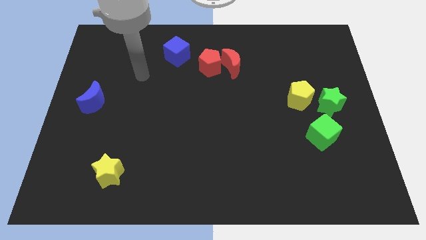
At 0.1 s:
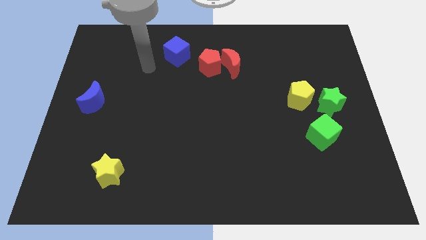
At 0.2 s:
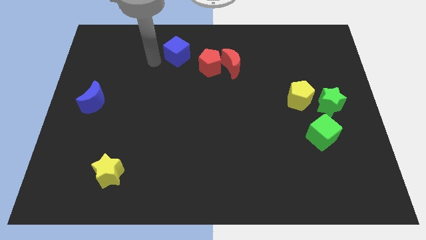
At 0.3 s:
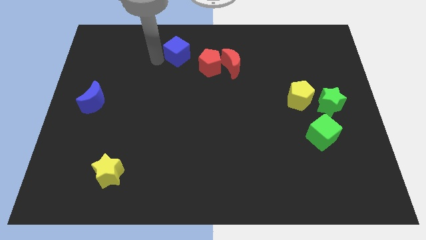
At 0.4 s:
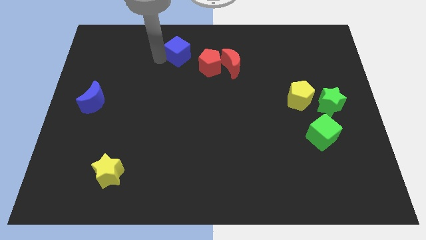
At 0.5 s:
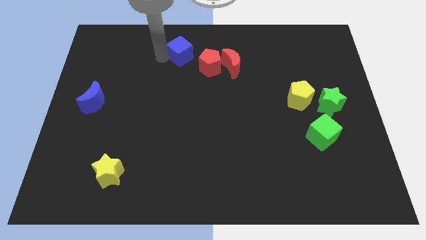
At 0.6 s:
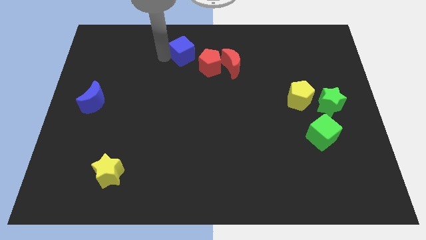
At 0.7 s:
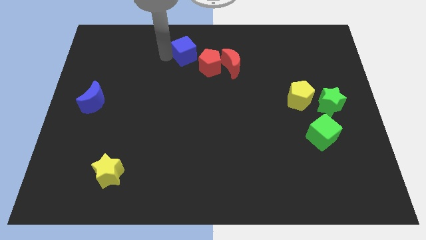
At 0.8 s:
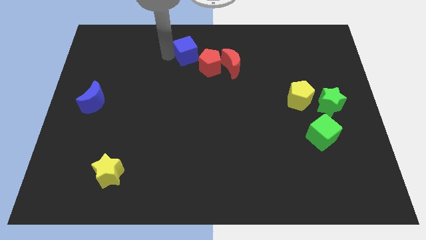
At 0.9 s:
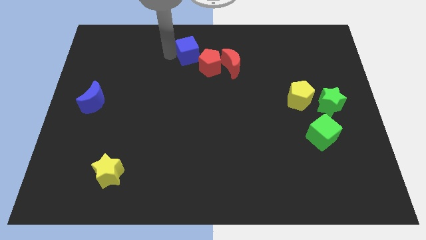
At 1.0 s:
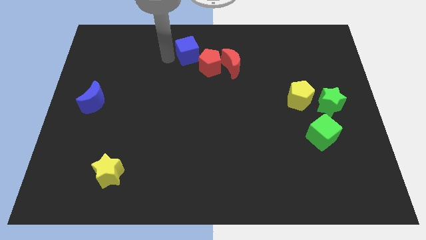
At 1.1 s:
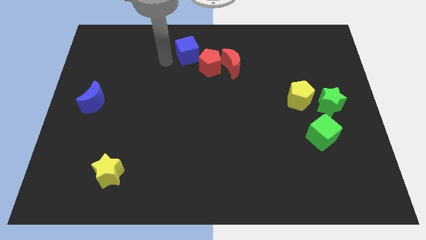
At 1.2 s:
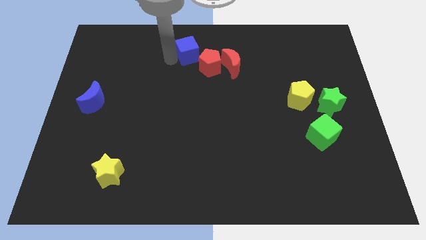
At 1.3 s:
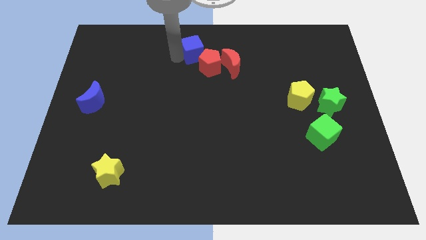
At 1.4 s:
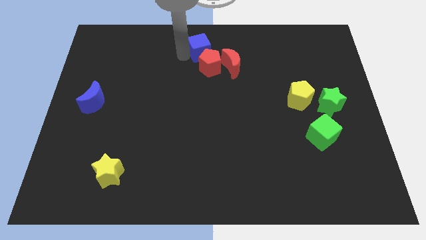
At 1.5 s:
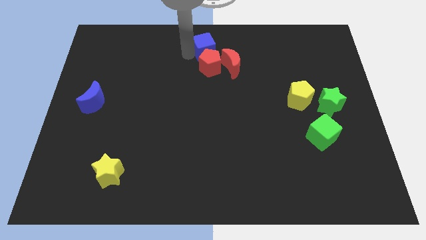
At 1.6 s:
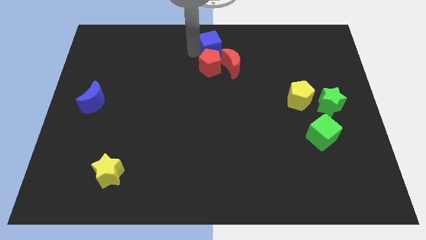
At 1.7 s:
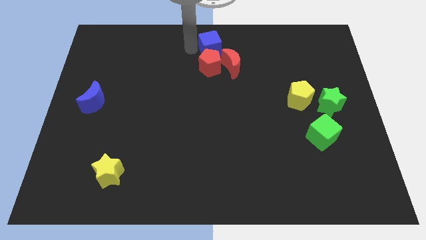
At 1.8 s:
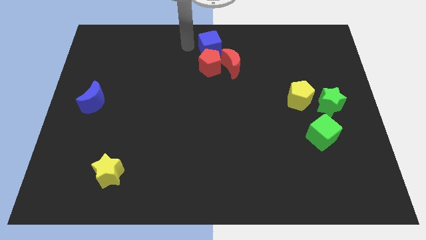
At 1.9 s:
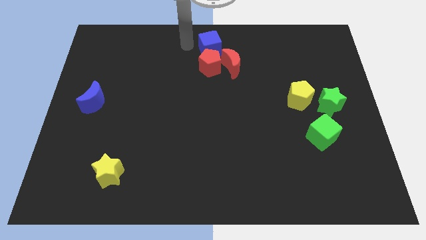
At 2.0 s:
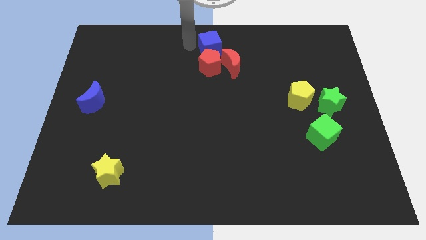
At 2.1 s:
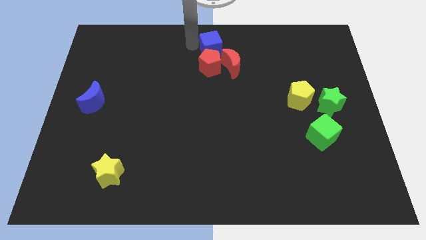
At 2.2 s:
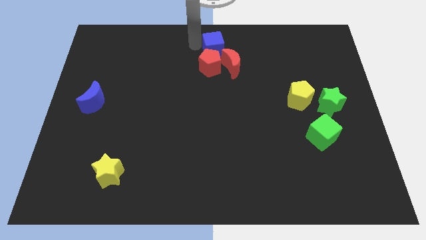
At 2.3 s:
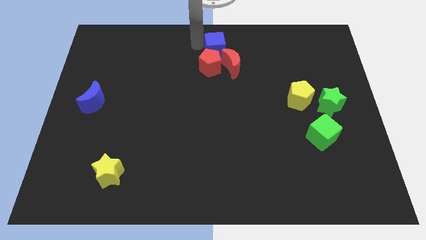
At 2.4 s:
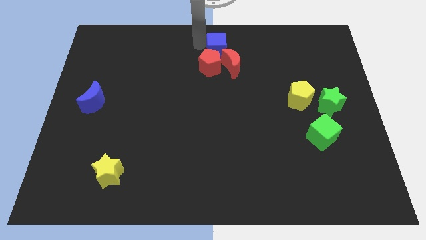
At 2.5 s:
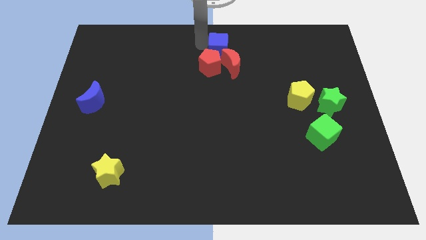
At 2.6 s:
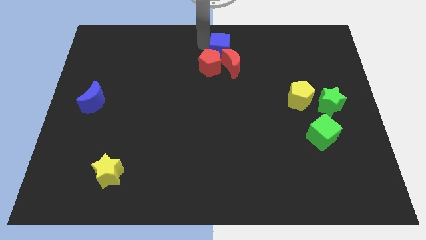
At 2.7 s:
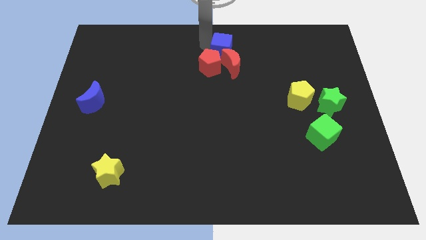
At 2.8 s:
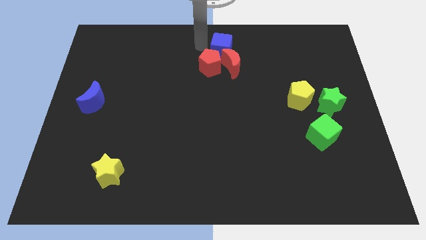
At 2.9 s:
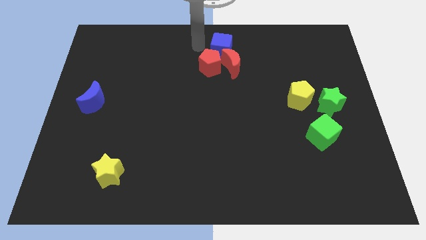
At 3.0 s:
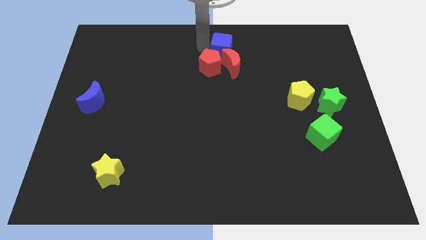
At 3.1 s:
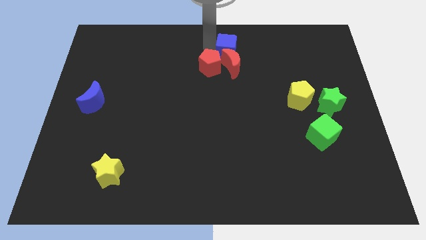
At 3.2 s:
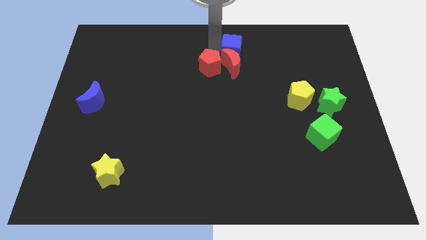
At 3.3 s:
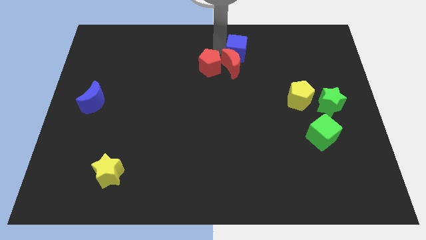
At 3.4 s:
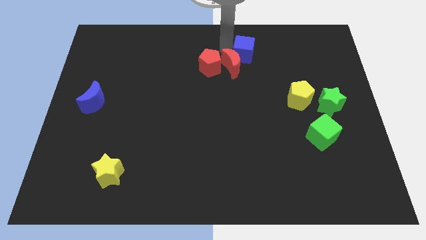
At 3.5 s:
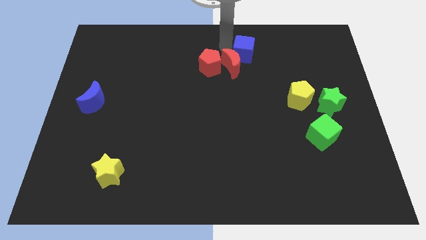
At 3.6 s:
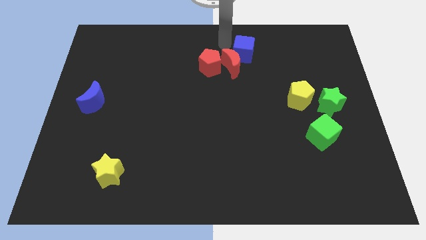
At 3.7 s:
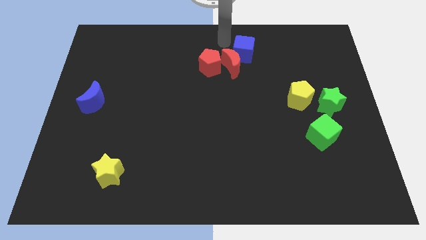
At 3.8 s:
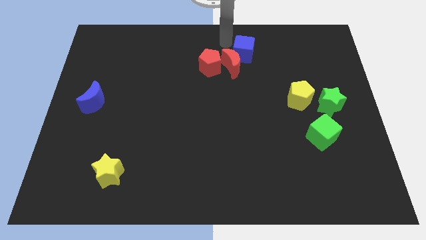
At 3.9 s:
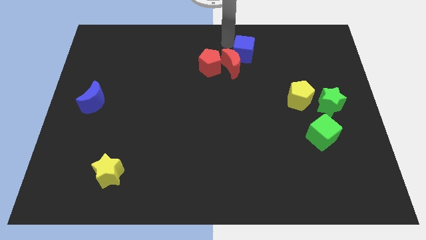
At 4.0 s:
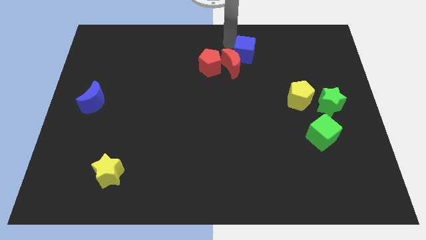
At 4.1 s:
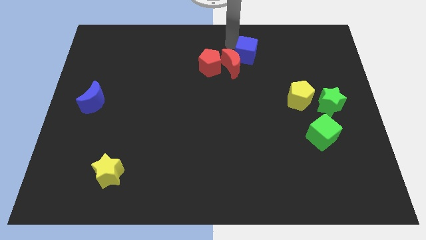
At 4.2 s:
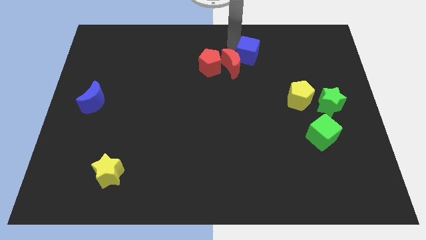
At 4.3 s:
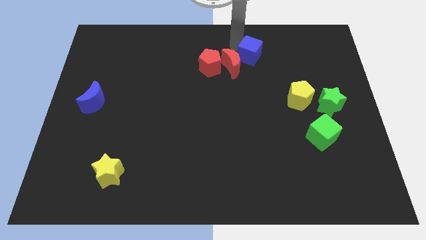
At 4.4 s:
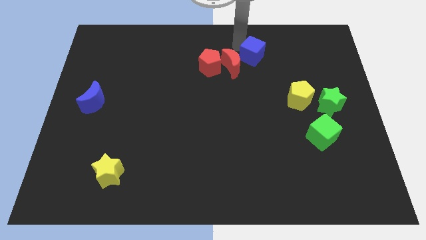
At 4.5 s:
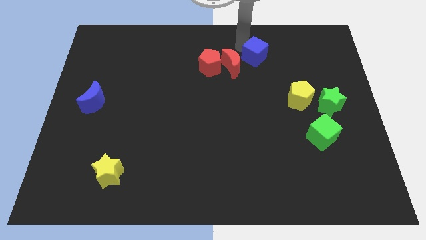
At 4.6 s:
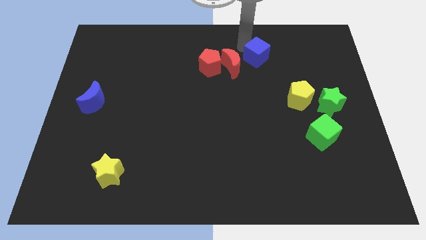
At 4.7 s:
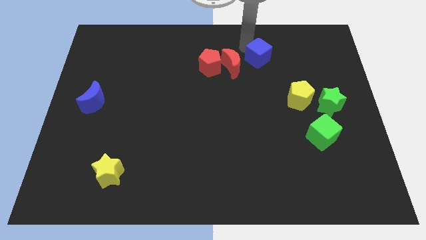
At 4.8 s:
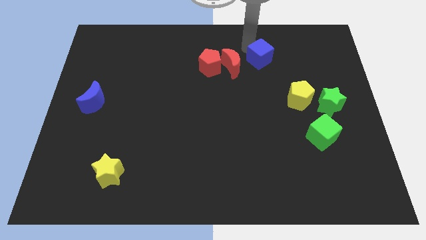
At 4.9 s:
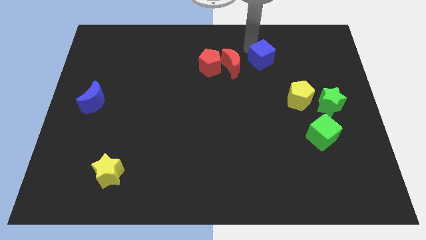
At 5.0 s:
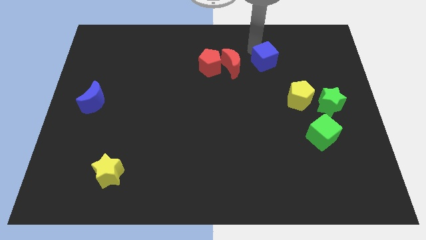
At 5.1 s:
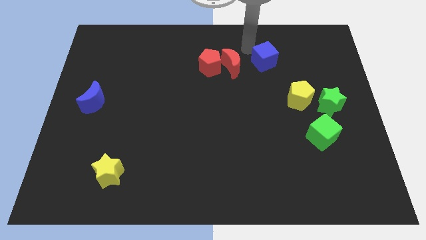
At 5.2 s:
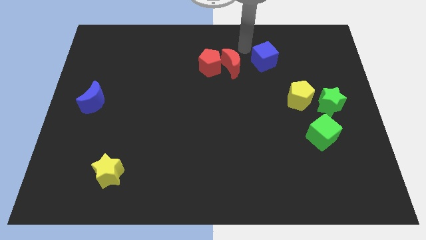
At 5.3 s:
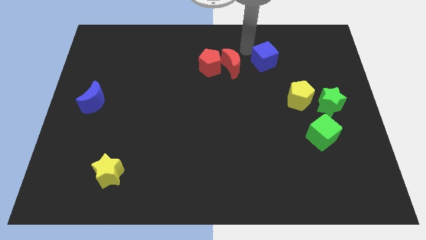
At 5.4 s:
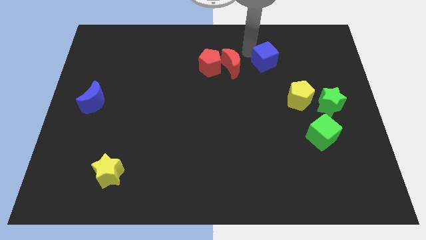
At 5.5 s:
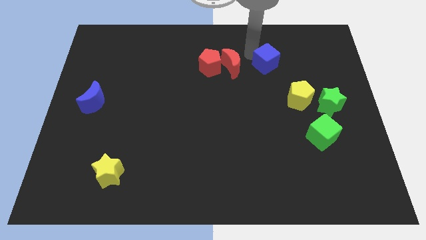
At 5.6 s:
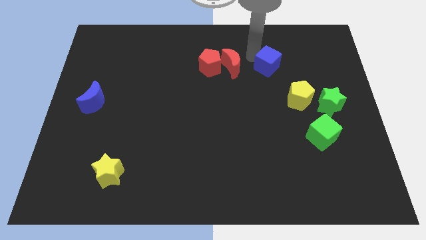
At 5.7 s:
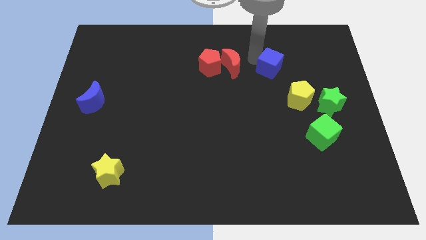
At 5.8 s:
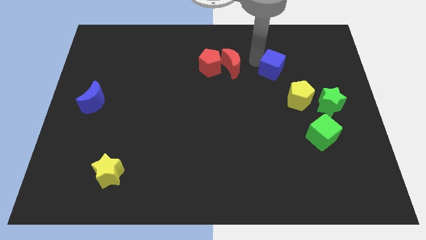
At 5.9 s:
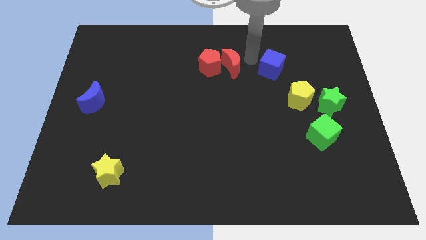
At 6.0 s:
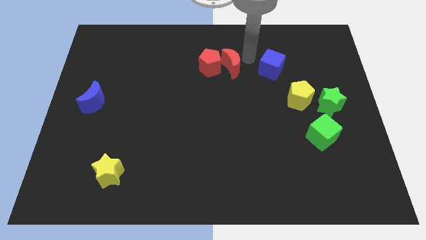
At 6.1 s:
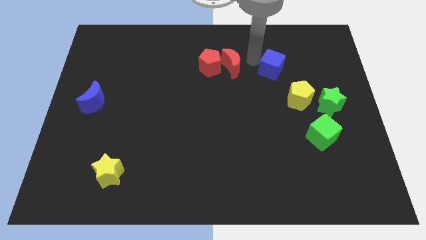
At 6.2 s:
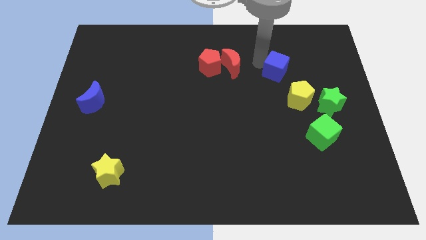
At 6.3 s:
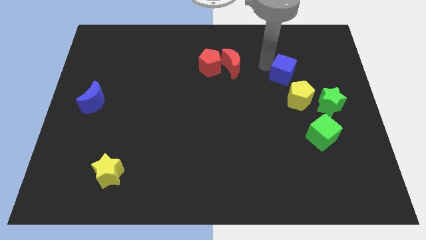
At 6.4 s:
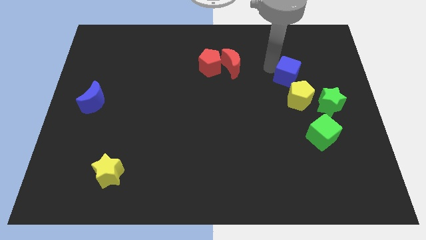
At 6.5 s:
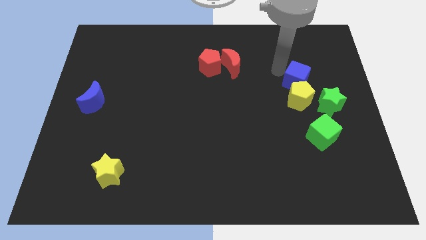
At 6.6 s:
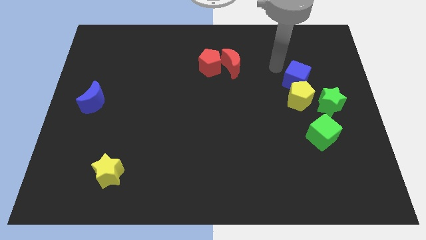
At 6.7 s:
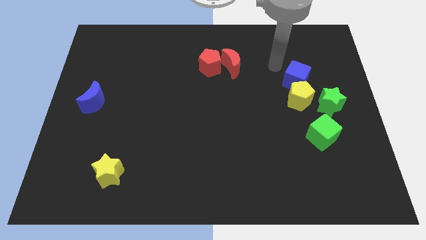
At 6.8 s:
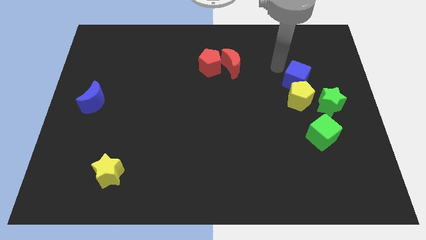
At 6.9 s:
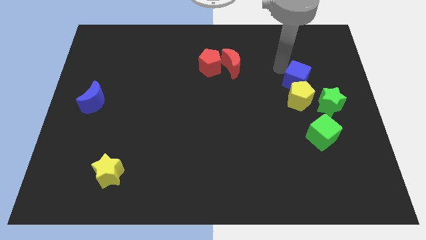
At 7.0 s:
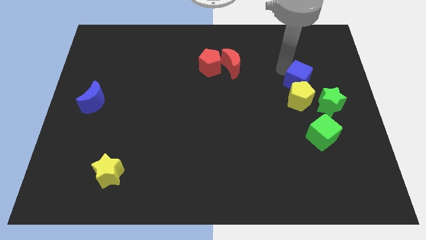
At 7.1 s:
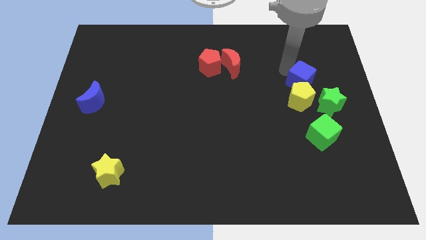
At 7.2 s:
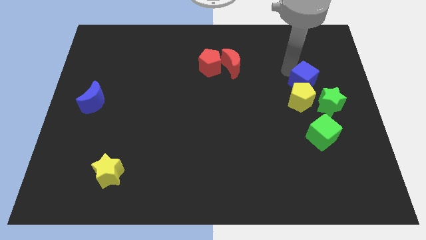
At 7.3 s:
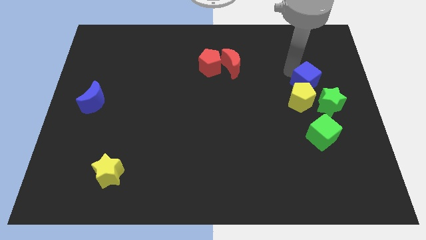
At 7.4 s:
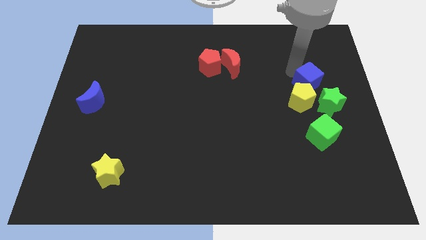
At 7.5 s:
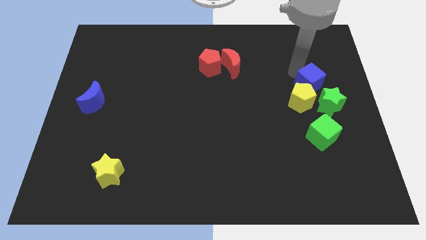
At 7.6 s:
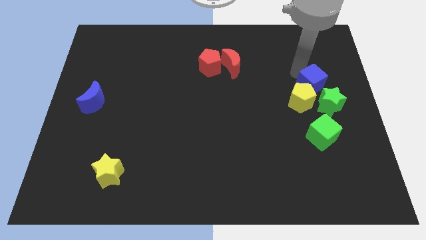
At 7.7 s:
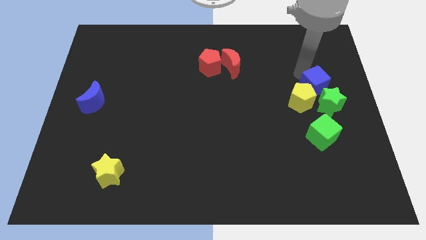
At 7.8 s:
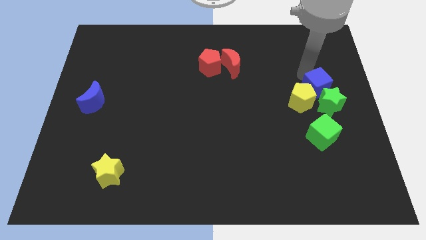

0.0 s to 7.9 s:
put the blue cube to the green star
